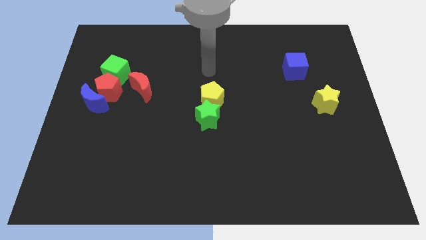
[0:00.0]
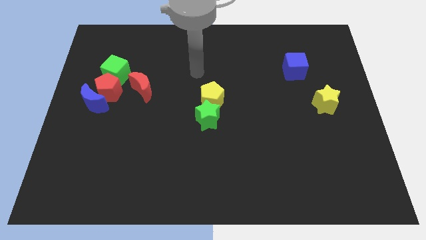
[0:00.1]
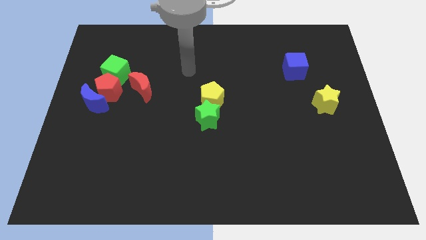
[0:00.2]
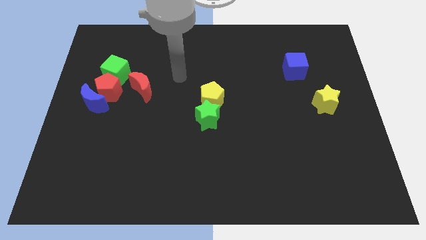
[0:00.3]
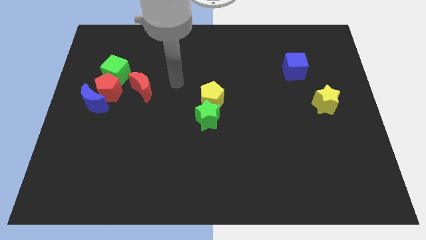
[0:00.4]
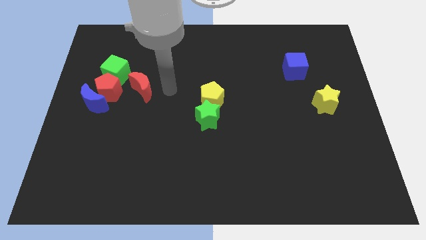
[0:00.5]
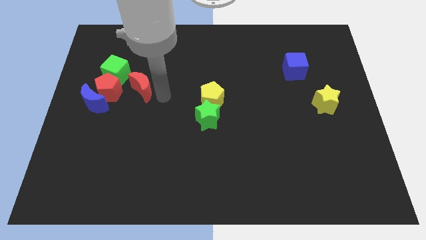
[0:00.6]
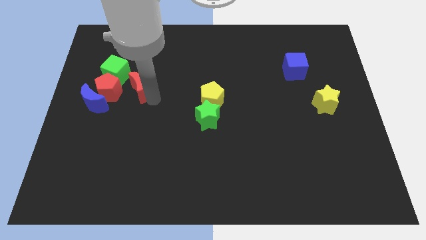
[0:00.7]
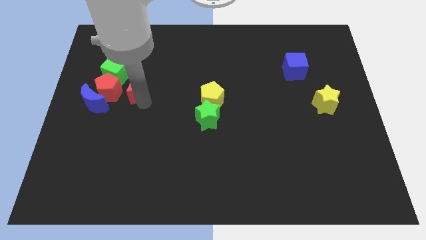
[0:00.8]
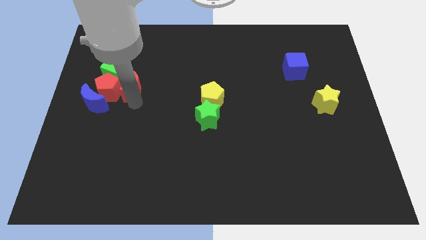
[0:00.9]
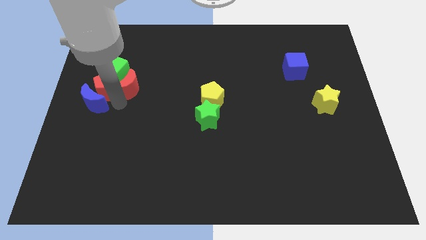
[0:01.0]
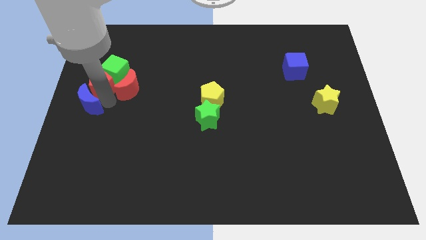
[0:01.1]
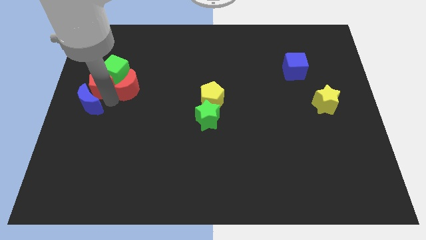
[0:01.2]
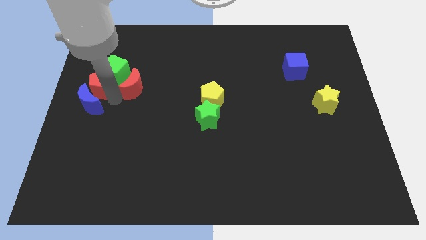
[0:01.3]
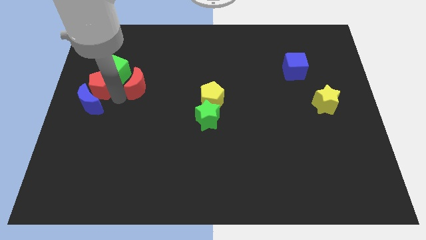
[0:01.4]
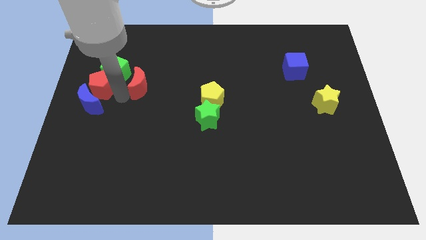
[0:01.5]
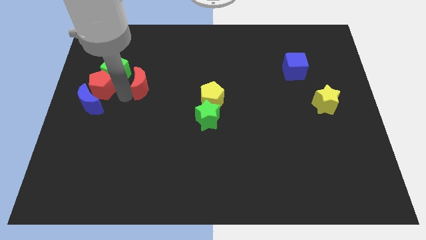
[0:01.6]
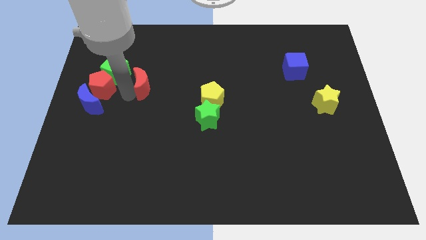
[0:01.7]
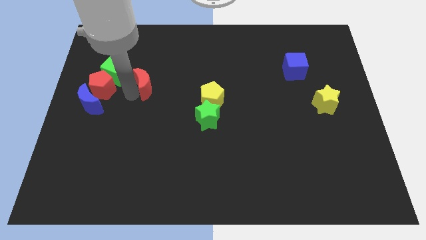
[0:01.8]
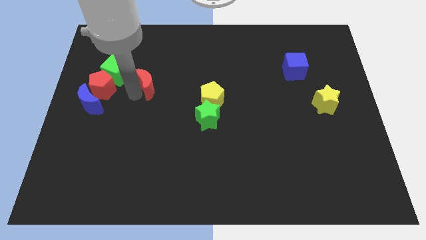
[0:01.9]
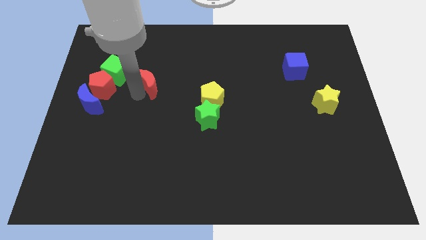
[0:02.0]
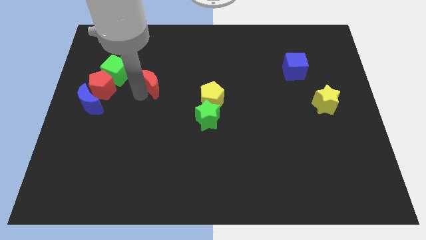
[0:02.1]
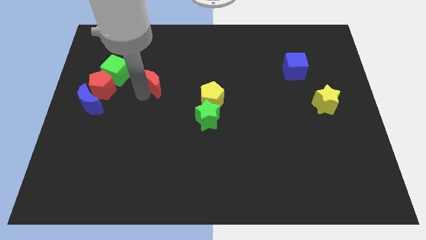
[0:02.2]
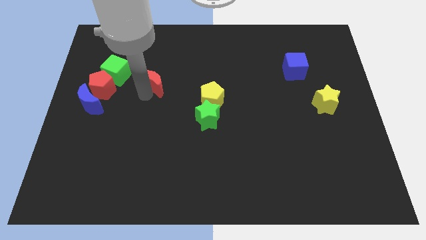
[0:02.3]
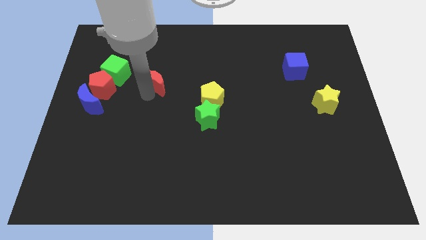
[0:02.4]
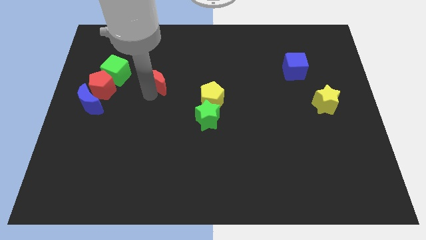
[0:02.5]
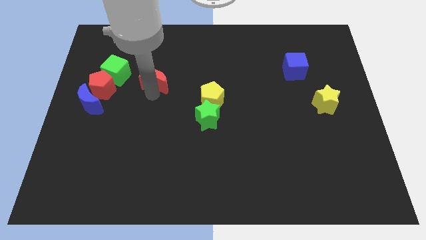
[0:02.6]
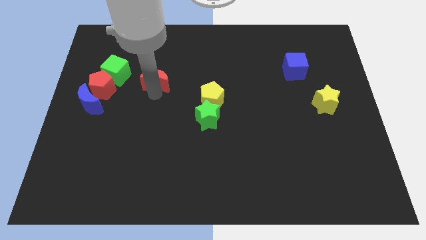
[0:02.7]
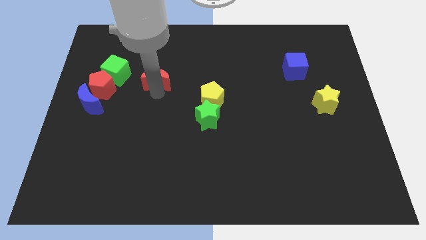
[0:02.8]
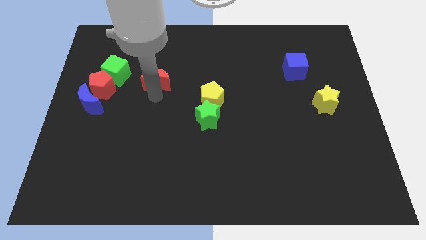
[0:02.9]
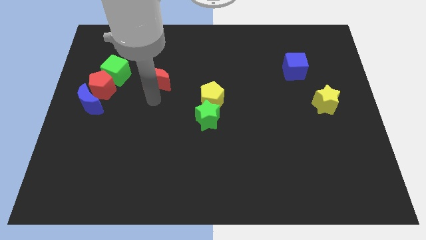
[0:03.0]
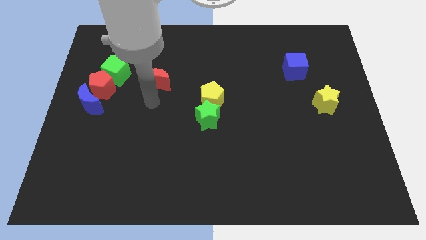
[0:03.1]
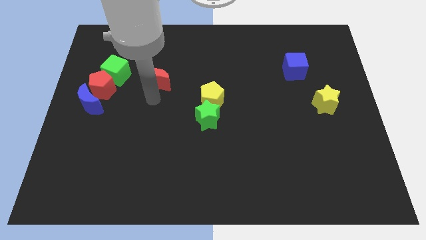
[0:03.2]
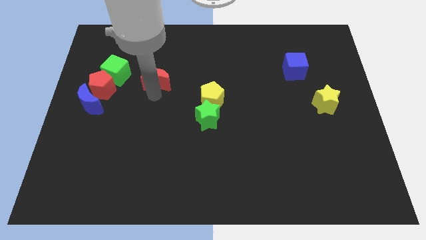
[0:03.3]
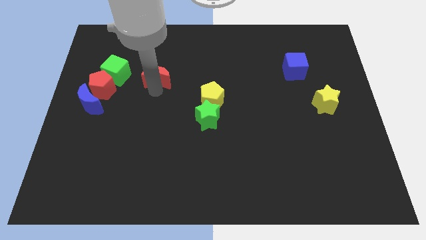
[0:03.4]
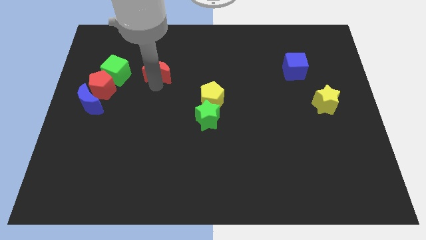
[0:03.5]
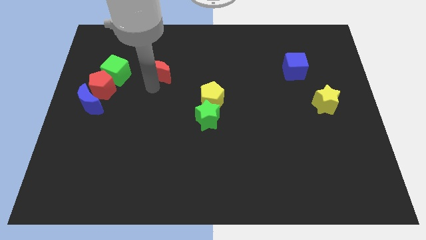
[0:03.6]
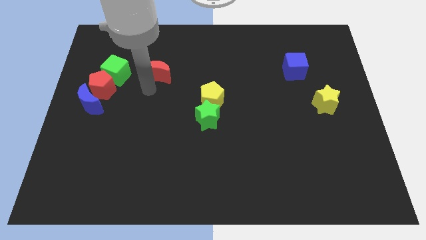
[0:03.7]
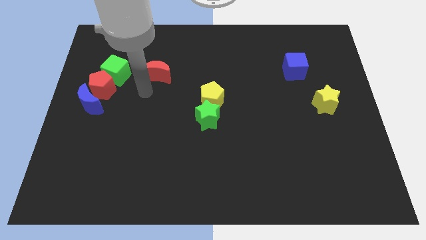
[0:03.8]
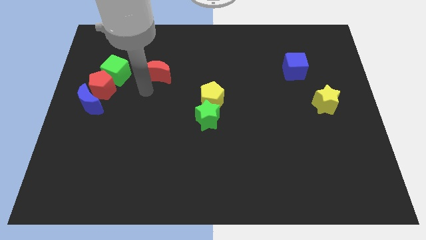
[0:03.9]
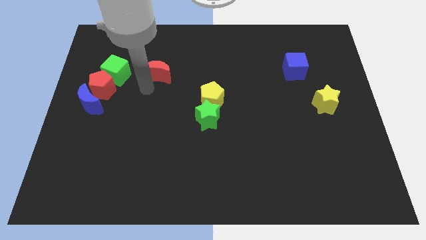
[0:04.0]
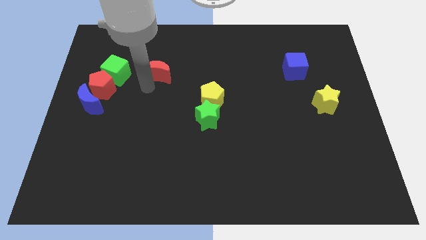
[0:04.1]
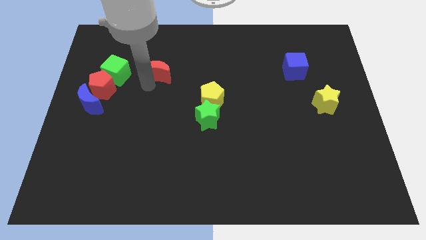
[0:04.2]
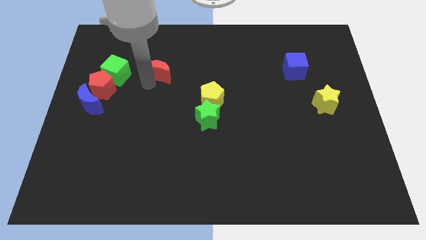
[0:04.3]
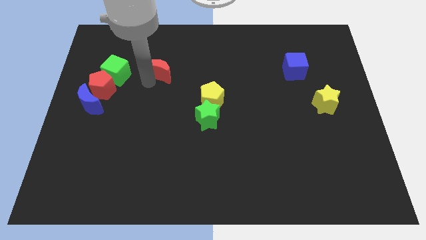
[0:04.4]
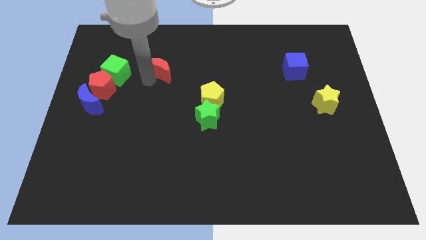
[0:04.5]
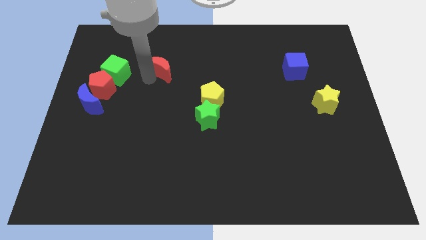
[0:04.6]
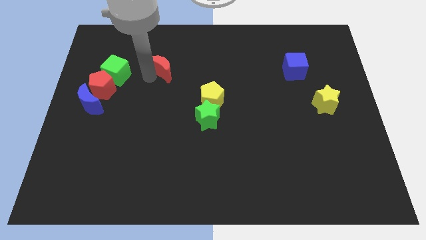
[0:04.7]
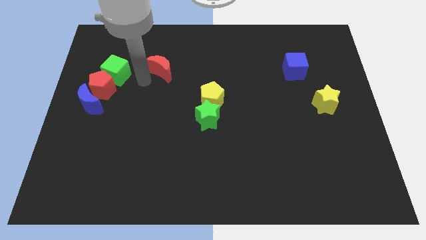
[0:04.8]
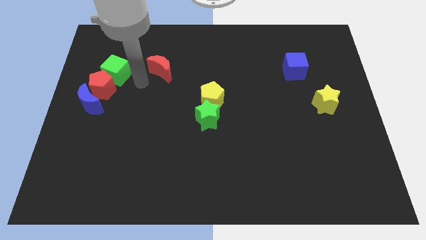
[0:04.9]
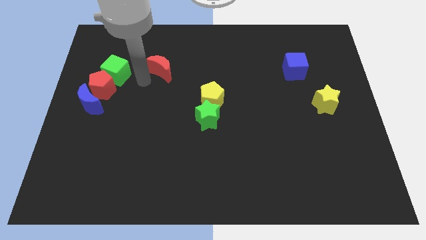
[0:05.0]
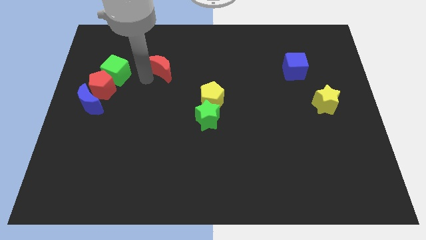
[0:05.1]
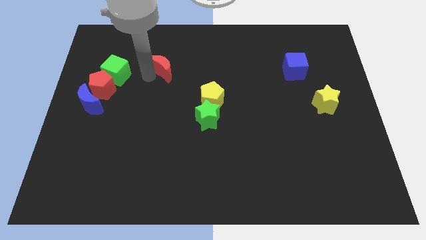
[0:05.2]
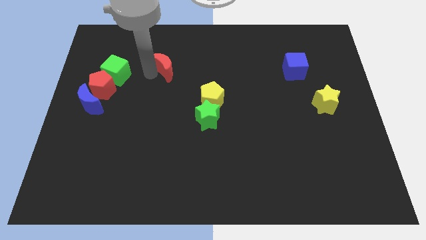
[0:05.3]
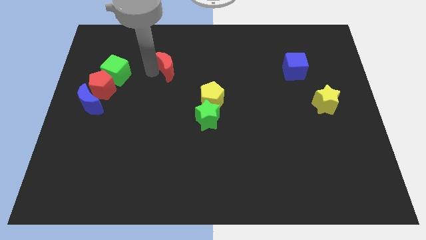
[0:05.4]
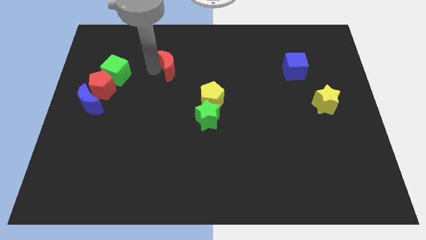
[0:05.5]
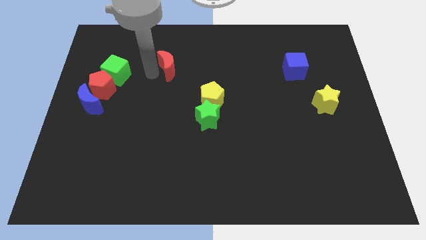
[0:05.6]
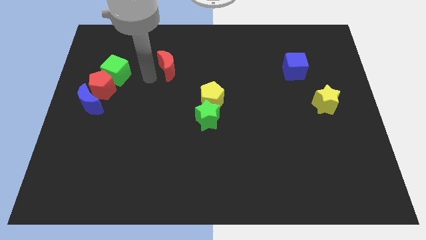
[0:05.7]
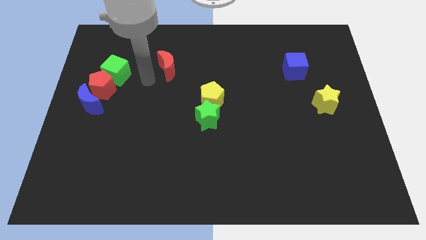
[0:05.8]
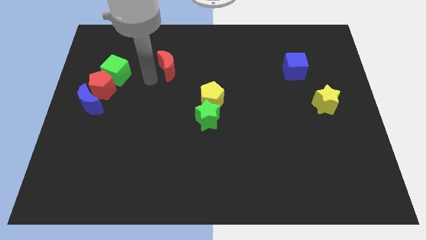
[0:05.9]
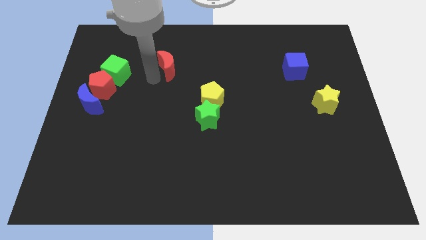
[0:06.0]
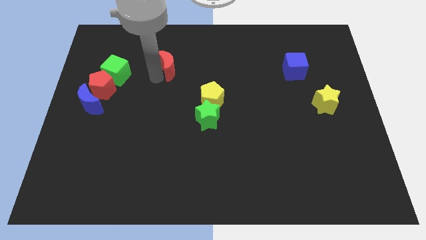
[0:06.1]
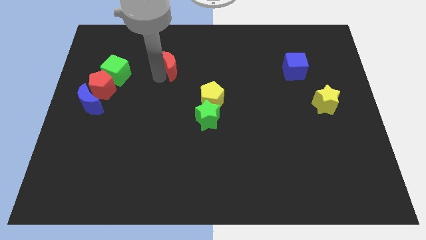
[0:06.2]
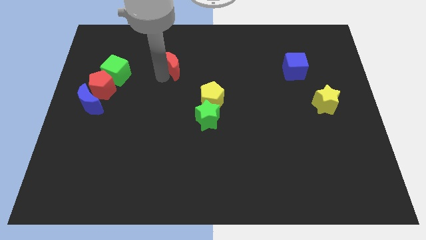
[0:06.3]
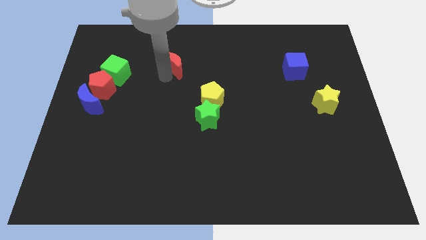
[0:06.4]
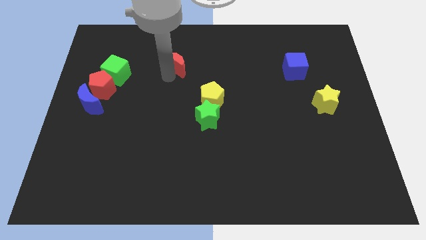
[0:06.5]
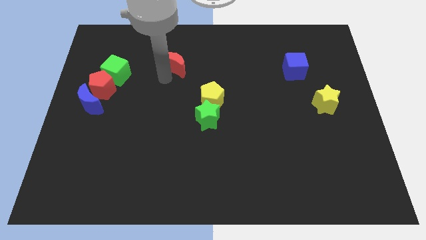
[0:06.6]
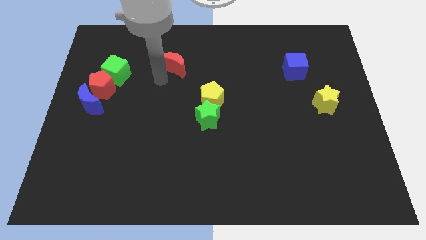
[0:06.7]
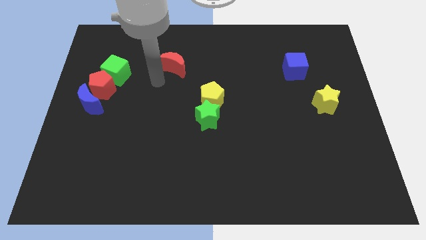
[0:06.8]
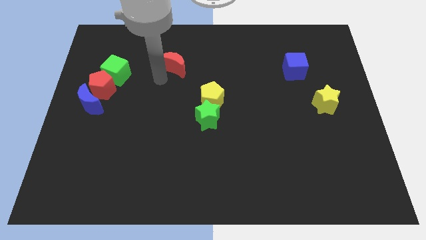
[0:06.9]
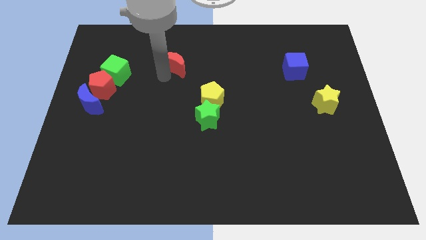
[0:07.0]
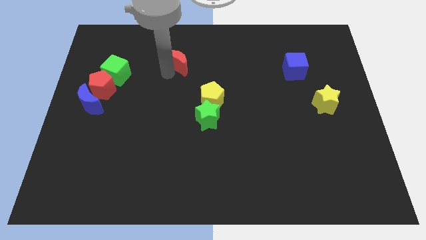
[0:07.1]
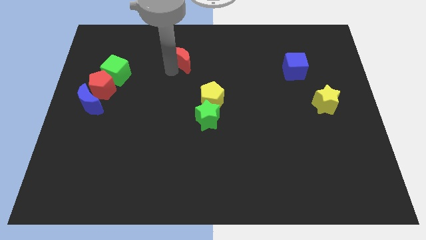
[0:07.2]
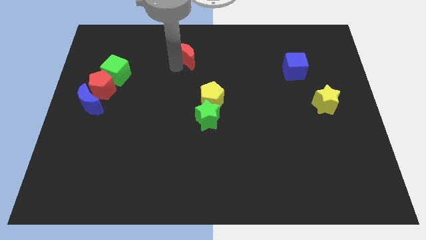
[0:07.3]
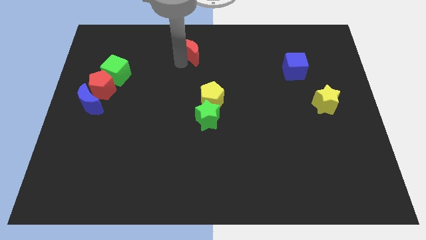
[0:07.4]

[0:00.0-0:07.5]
put the red moon to the top side
